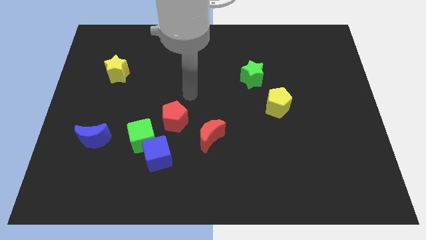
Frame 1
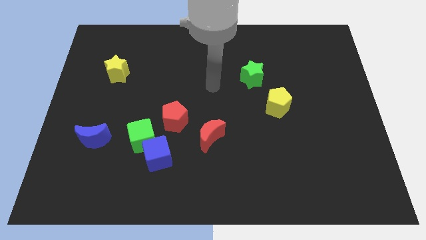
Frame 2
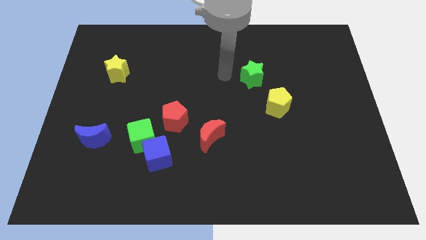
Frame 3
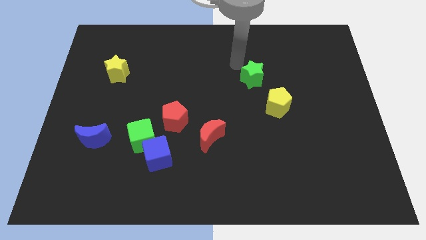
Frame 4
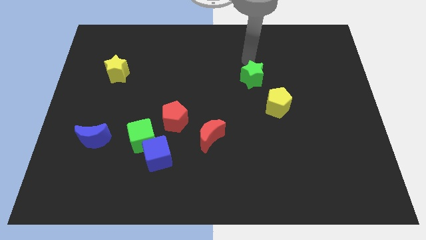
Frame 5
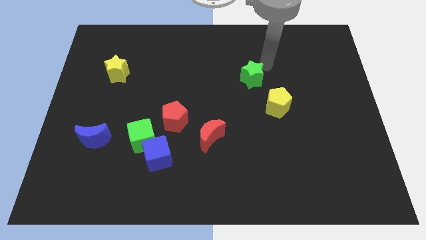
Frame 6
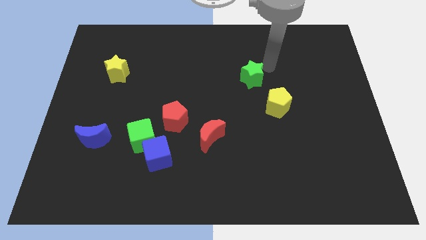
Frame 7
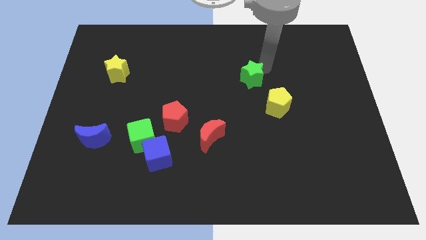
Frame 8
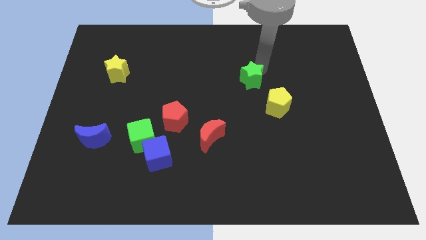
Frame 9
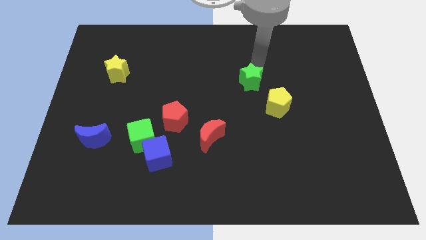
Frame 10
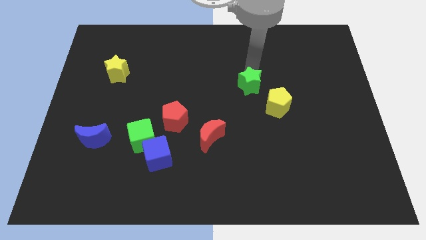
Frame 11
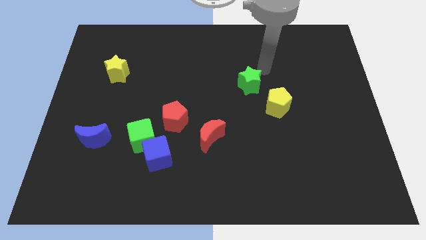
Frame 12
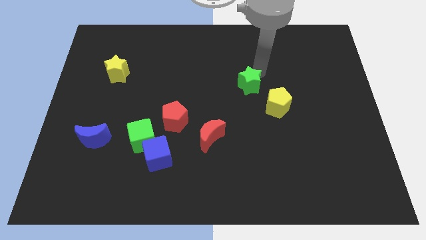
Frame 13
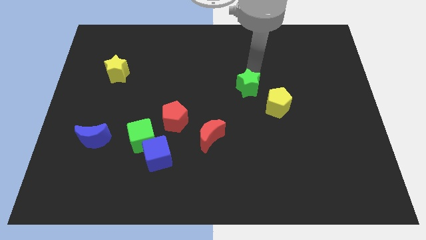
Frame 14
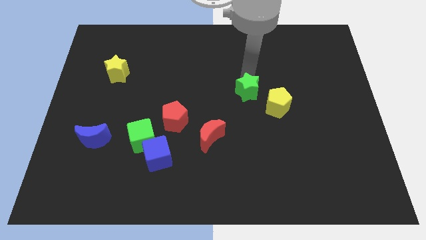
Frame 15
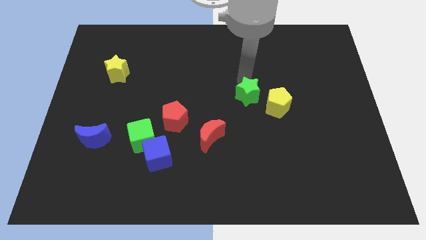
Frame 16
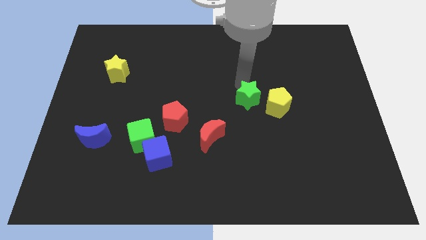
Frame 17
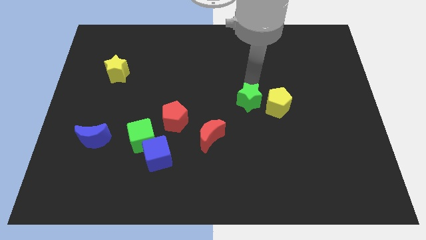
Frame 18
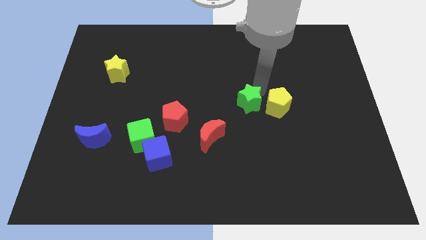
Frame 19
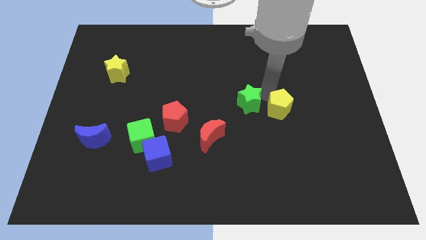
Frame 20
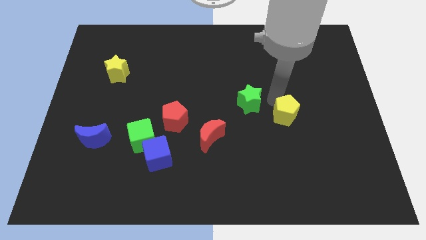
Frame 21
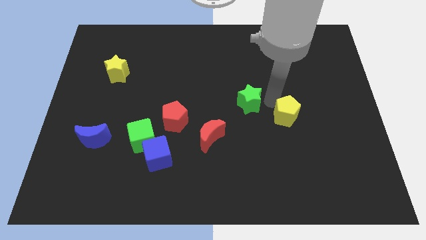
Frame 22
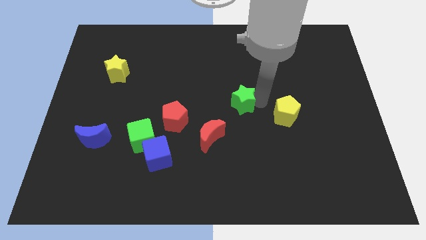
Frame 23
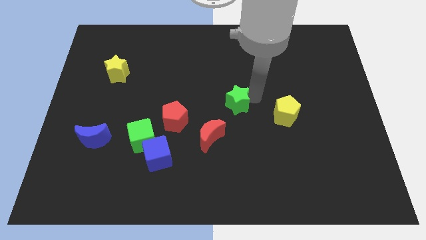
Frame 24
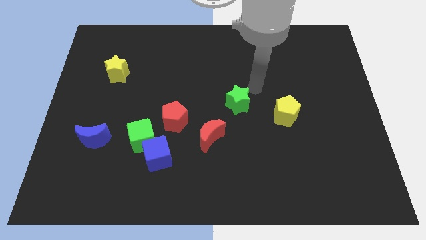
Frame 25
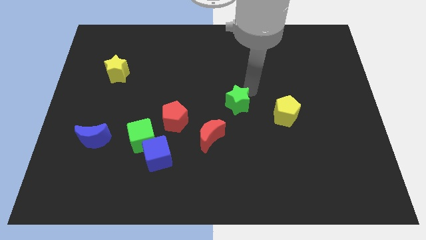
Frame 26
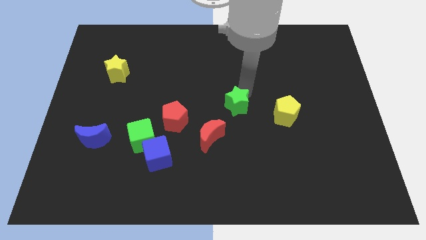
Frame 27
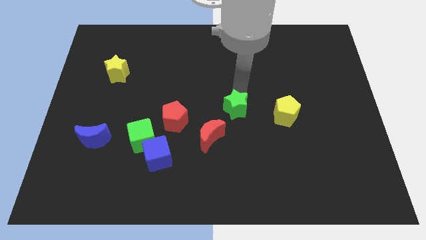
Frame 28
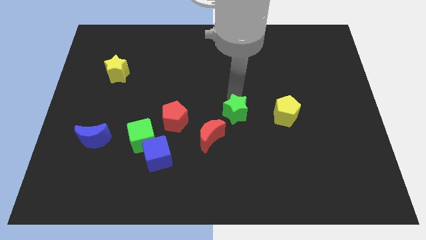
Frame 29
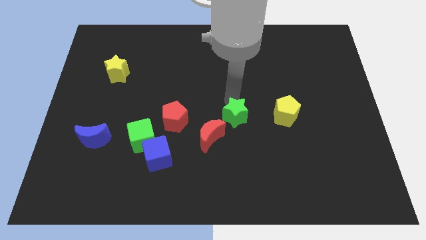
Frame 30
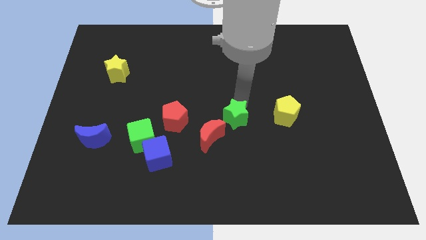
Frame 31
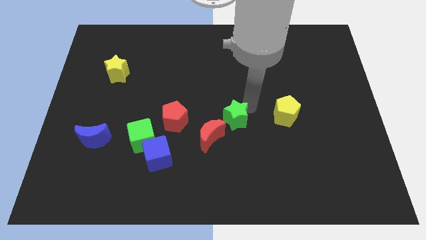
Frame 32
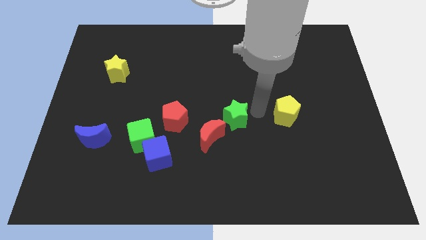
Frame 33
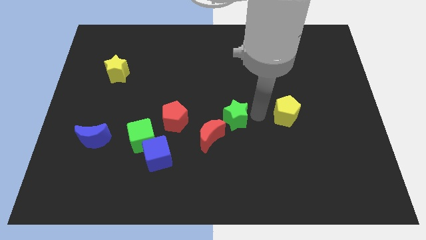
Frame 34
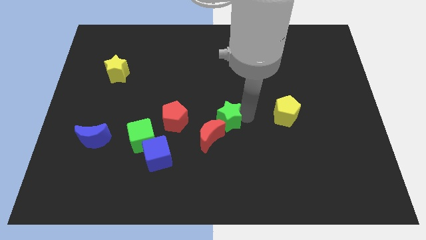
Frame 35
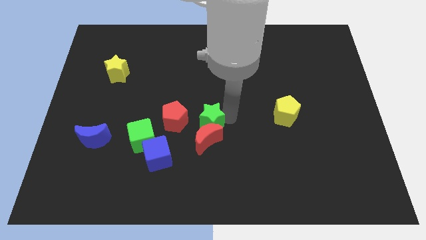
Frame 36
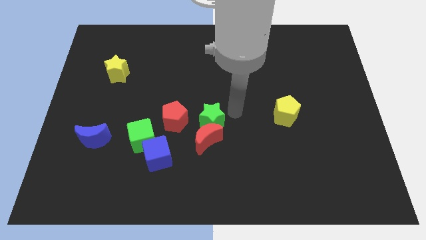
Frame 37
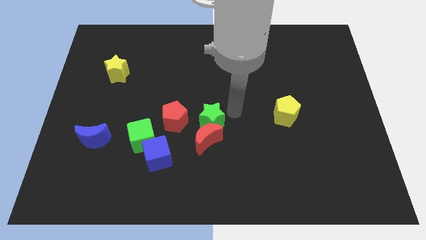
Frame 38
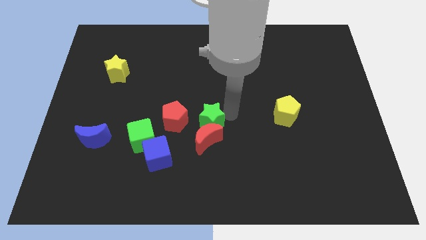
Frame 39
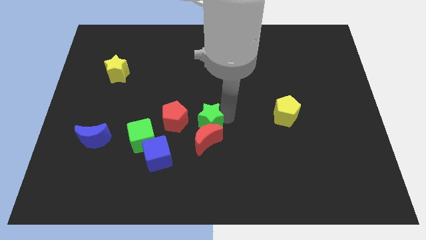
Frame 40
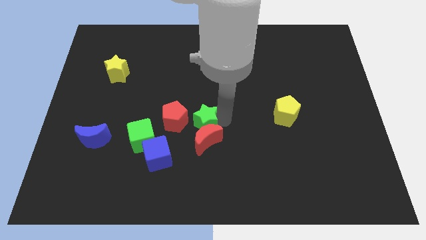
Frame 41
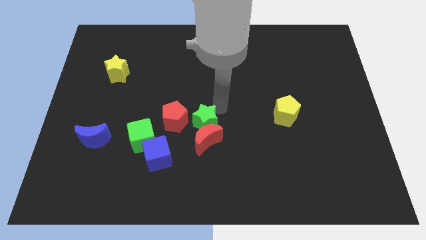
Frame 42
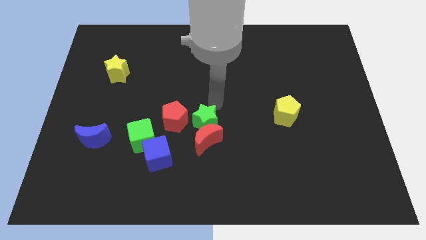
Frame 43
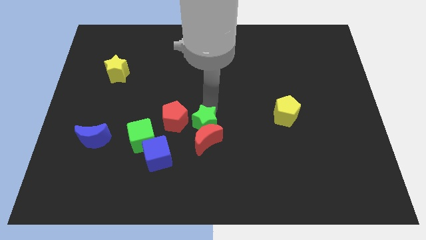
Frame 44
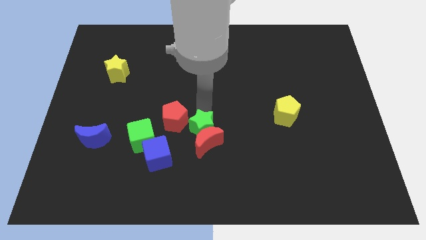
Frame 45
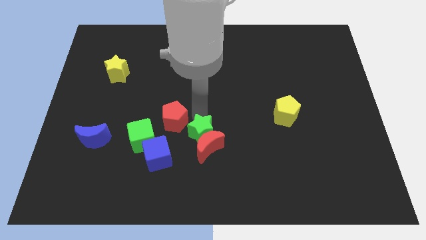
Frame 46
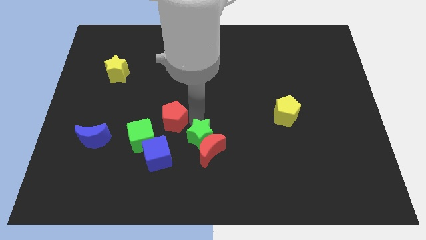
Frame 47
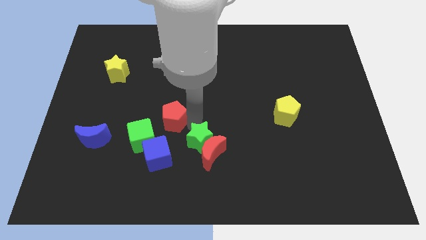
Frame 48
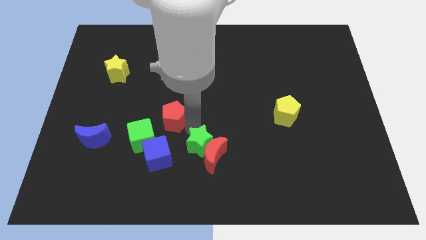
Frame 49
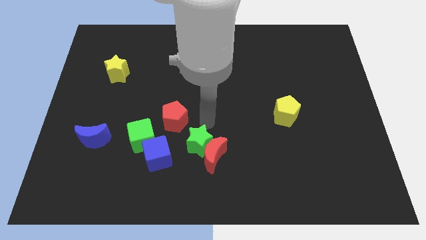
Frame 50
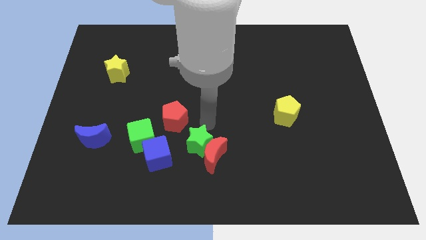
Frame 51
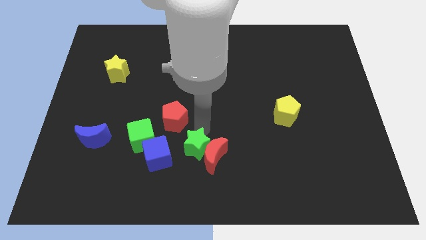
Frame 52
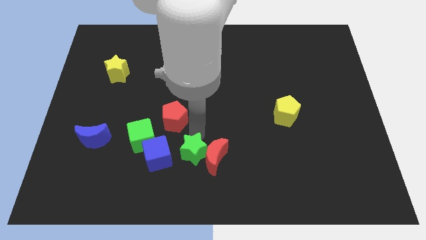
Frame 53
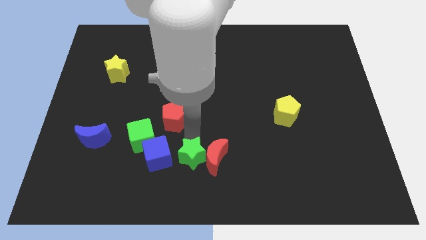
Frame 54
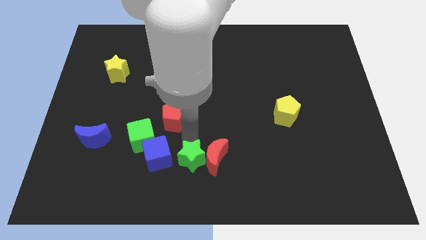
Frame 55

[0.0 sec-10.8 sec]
slide the green star to the bottom right of the blue cube

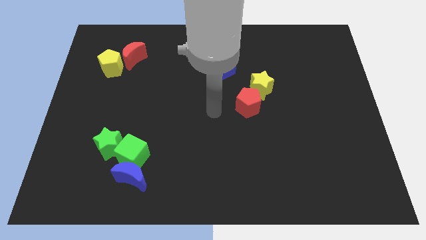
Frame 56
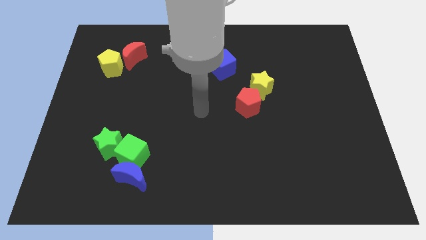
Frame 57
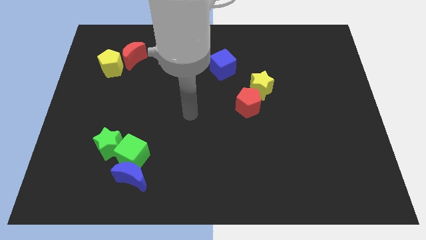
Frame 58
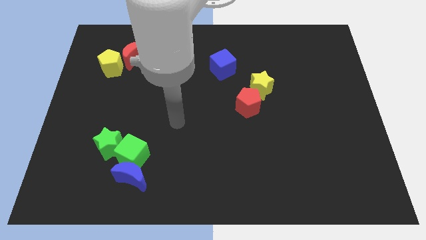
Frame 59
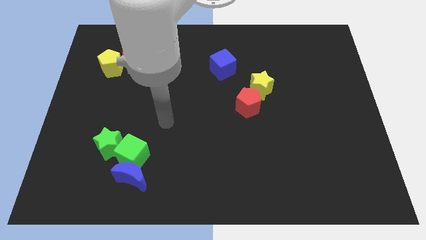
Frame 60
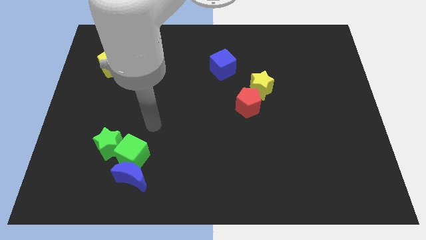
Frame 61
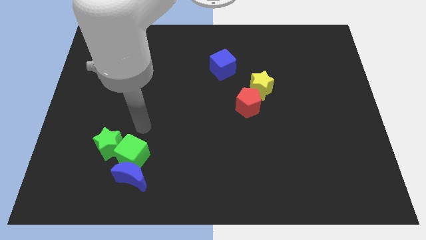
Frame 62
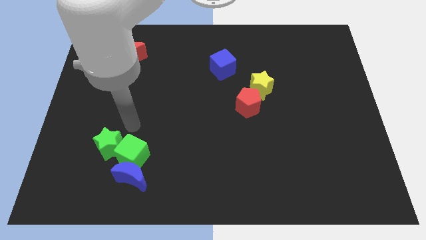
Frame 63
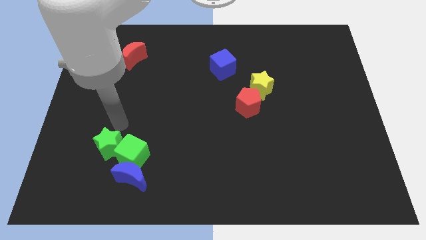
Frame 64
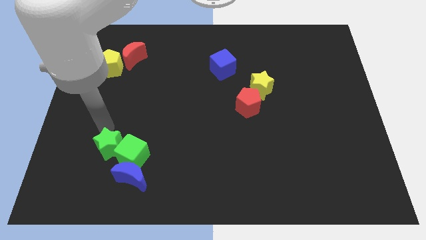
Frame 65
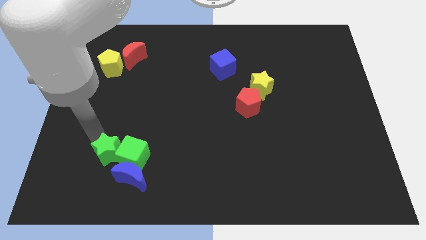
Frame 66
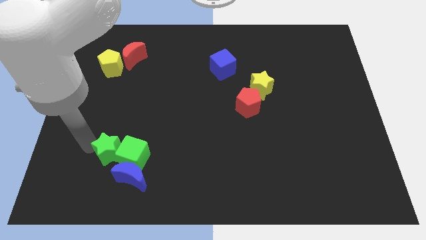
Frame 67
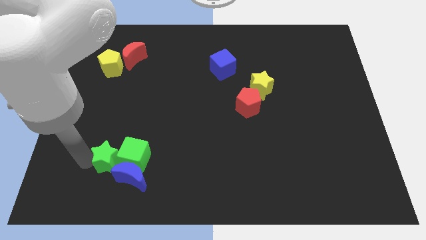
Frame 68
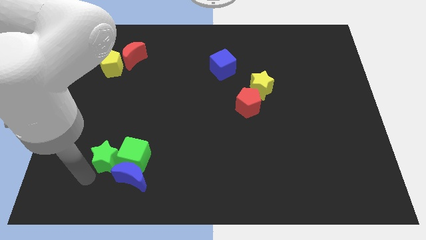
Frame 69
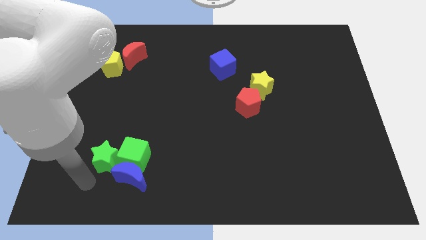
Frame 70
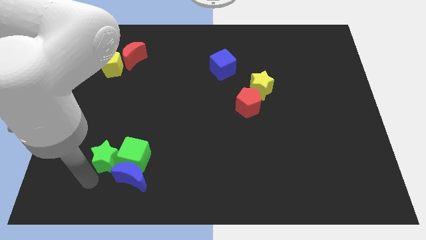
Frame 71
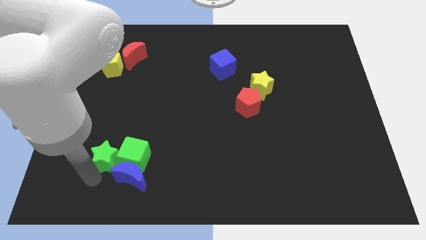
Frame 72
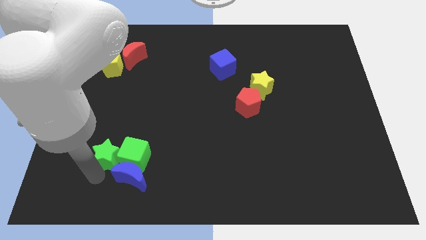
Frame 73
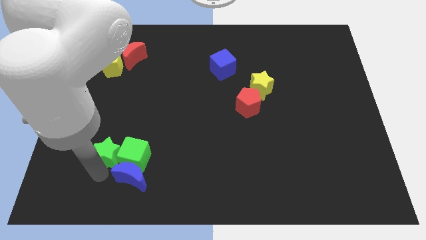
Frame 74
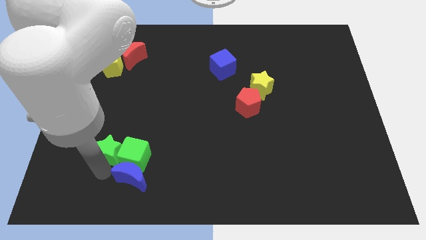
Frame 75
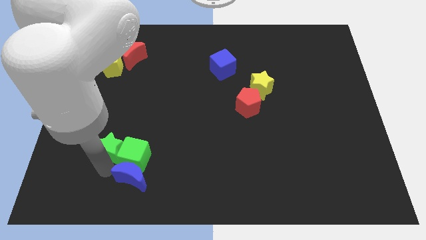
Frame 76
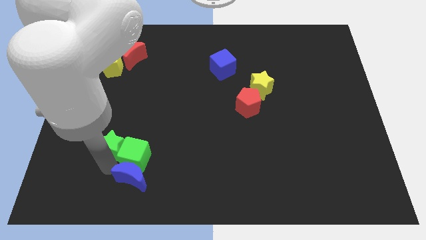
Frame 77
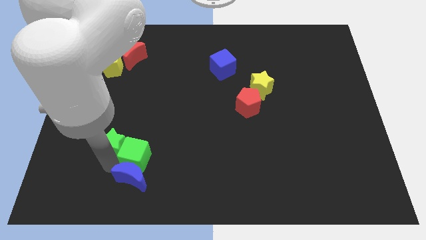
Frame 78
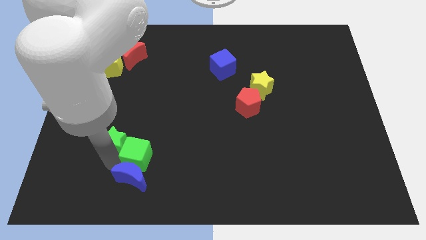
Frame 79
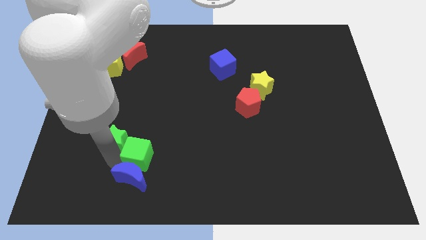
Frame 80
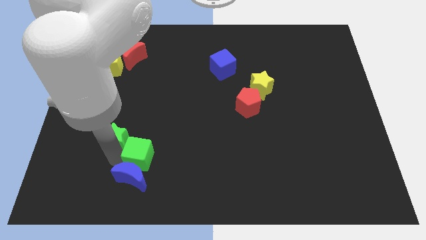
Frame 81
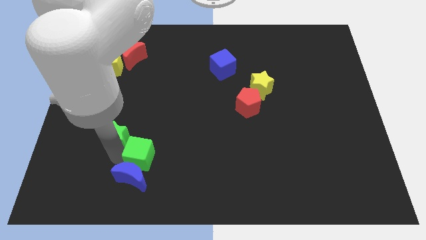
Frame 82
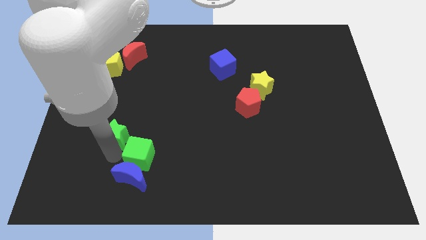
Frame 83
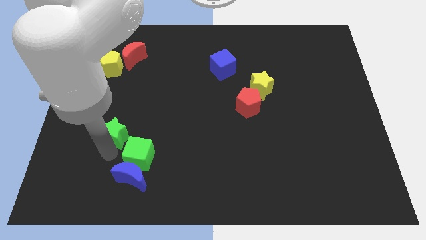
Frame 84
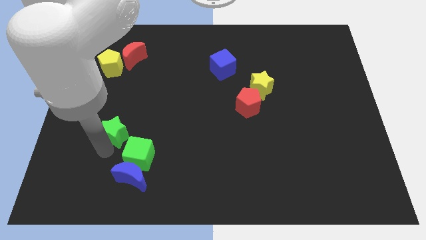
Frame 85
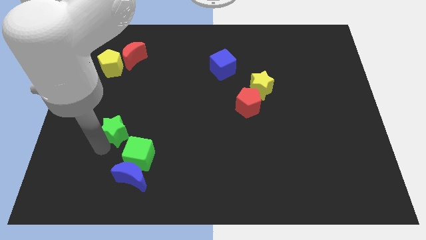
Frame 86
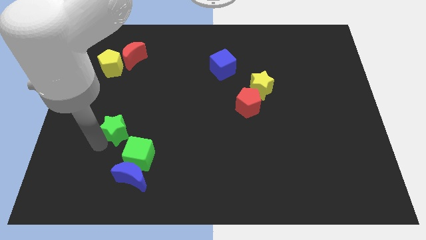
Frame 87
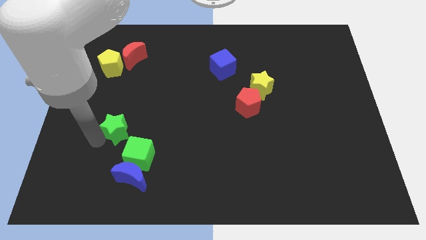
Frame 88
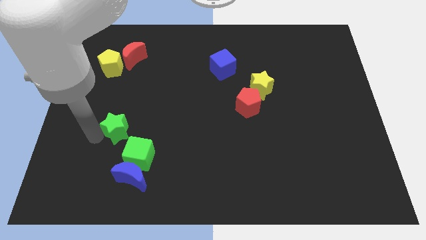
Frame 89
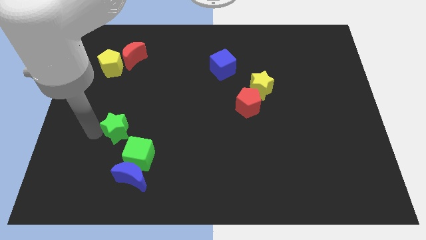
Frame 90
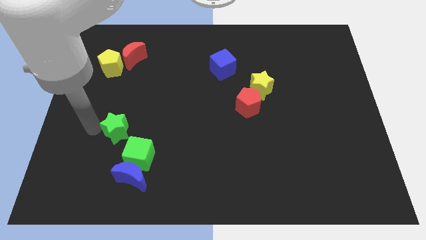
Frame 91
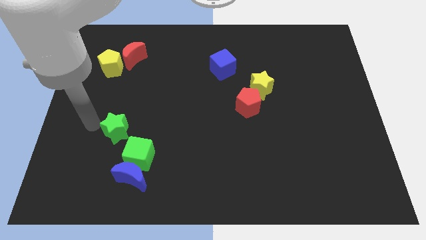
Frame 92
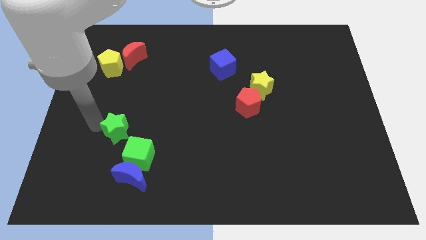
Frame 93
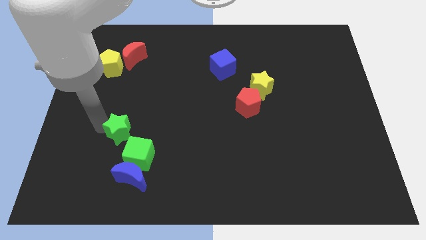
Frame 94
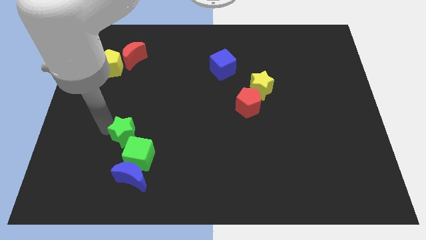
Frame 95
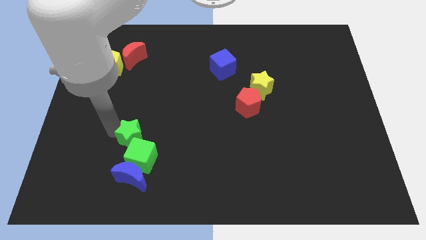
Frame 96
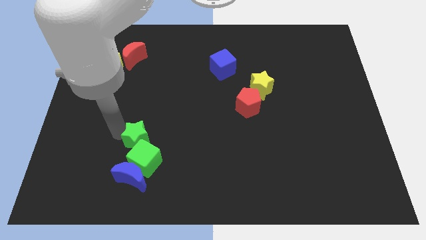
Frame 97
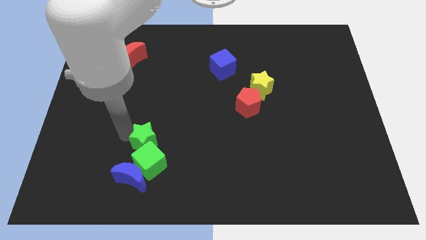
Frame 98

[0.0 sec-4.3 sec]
push the green star to the top right side of the blue moon
